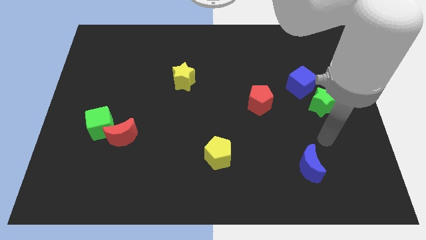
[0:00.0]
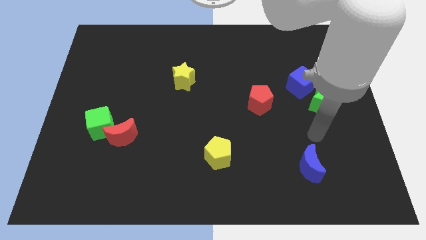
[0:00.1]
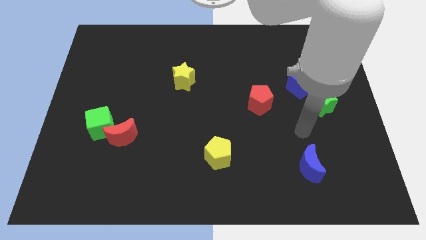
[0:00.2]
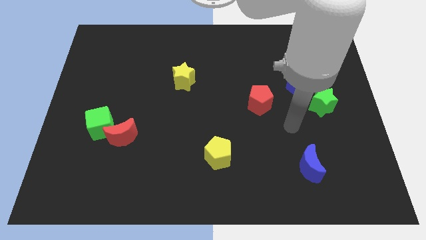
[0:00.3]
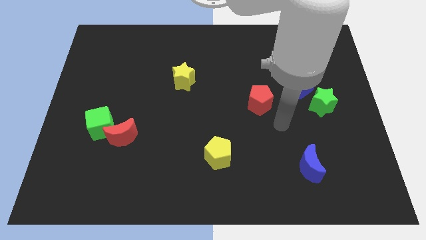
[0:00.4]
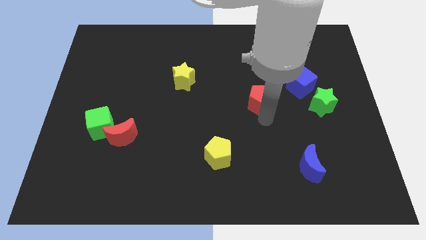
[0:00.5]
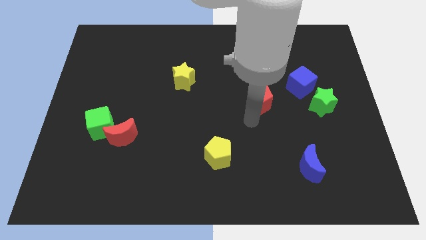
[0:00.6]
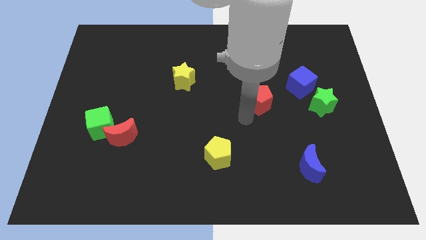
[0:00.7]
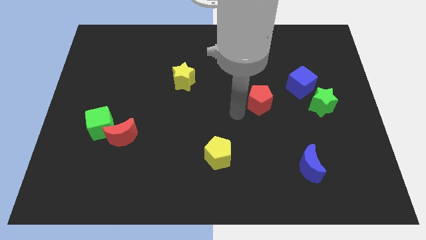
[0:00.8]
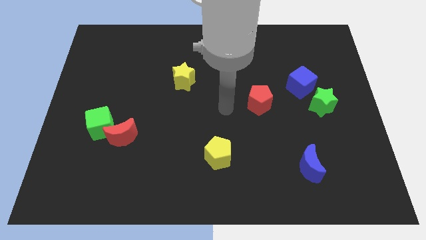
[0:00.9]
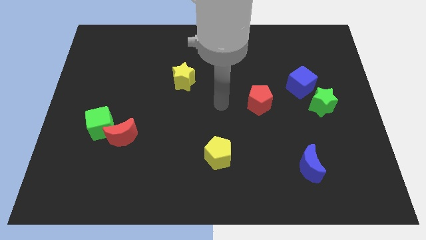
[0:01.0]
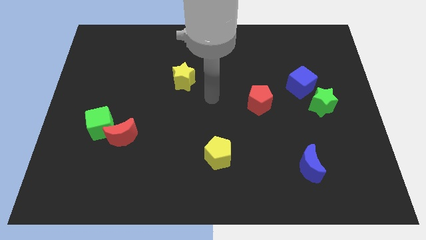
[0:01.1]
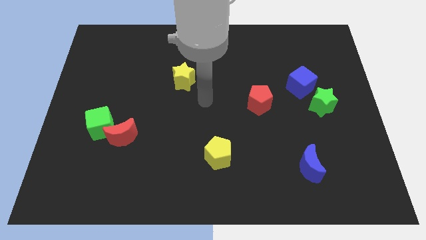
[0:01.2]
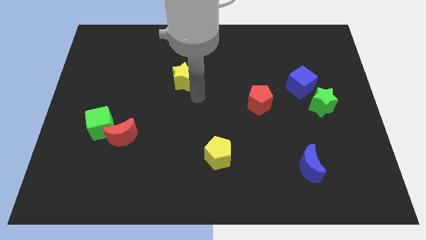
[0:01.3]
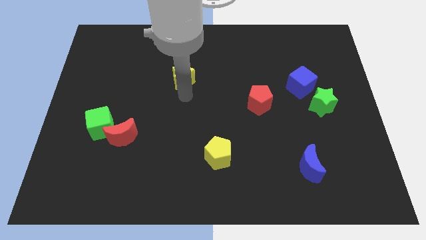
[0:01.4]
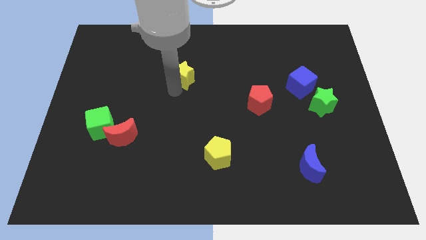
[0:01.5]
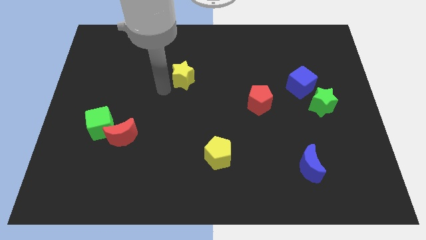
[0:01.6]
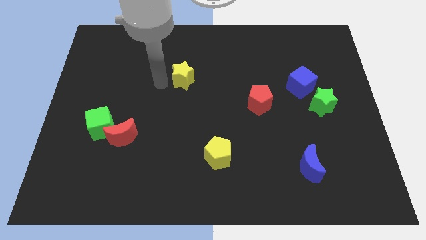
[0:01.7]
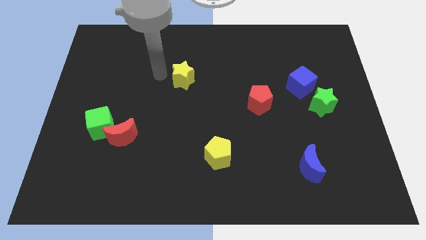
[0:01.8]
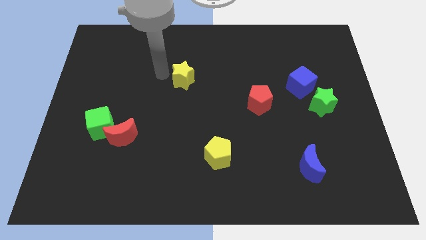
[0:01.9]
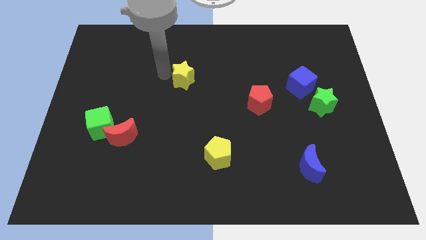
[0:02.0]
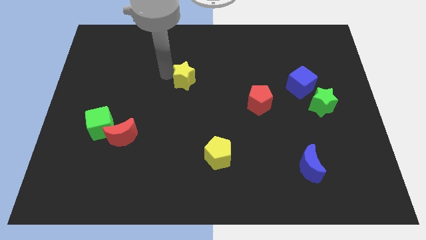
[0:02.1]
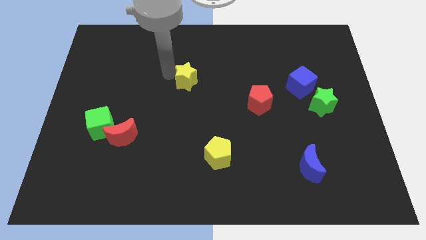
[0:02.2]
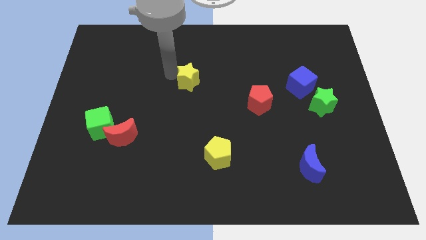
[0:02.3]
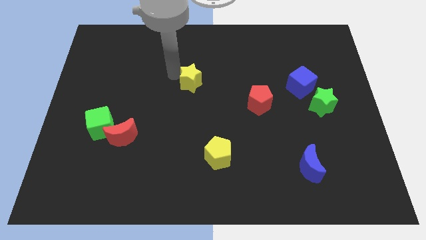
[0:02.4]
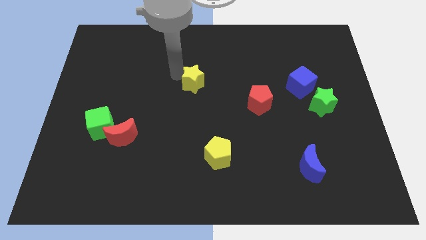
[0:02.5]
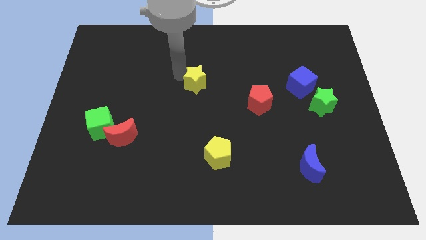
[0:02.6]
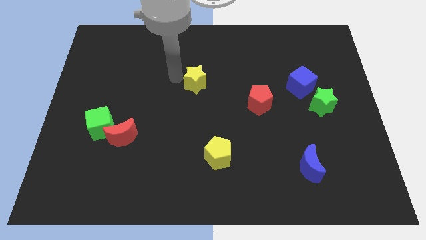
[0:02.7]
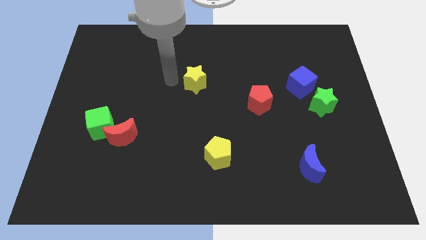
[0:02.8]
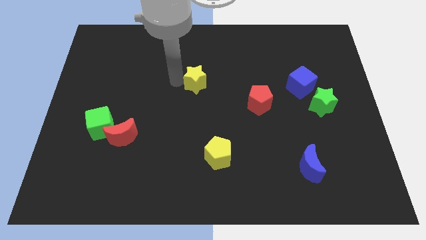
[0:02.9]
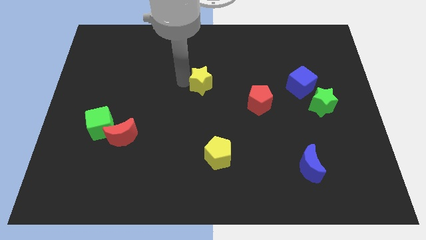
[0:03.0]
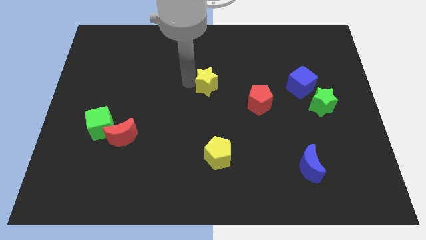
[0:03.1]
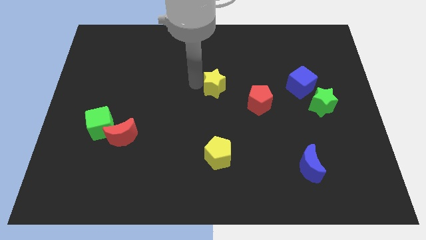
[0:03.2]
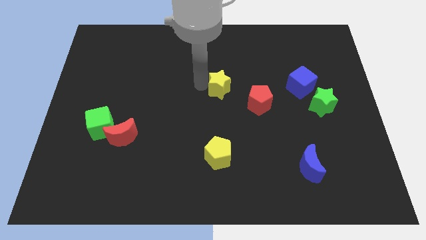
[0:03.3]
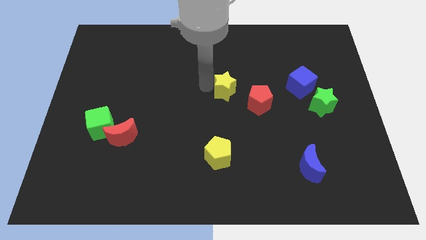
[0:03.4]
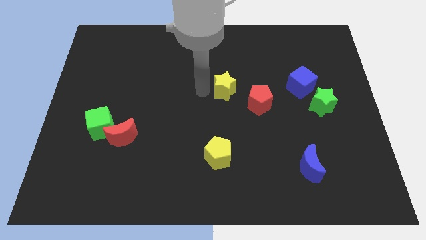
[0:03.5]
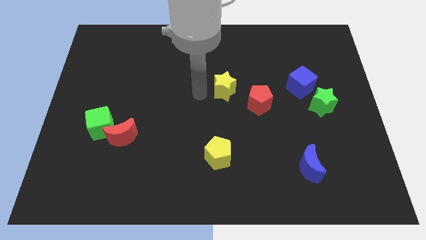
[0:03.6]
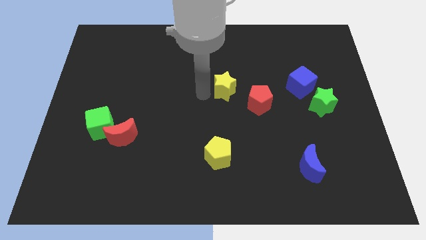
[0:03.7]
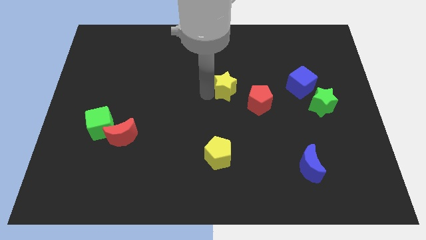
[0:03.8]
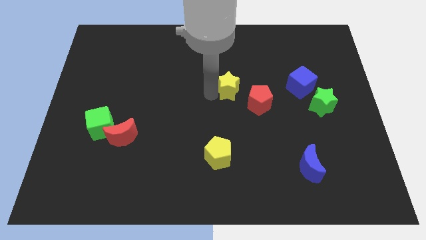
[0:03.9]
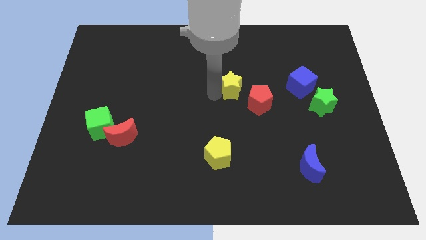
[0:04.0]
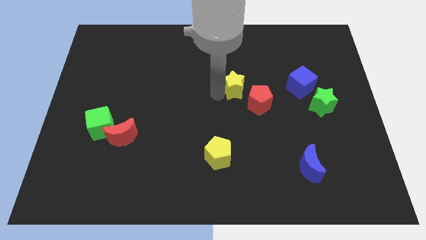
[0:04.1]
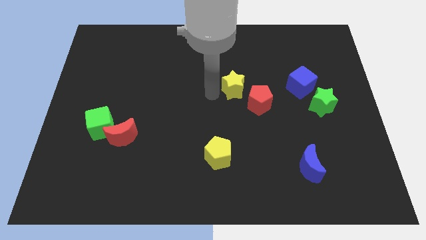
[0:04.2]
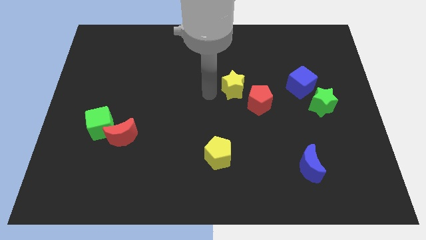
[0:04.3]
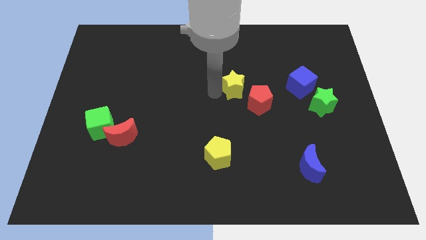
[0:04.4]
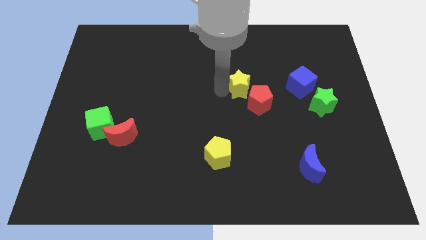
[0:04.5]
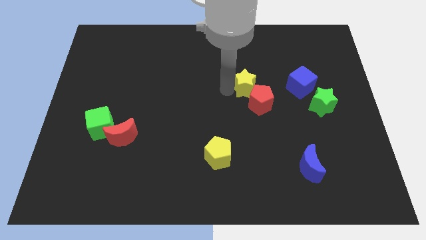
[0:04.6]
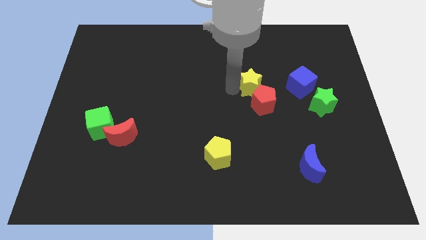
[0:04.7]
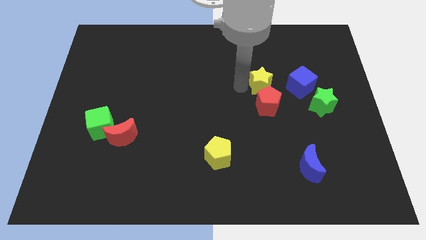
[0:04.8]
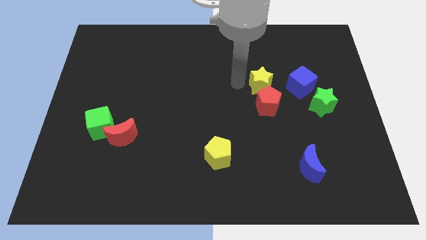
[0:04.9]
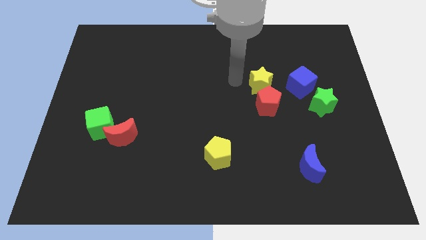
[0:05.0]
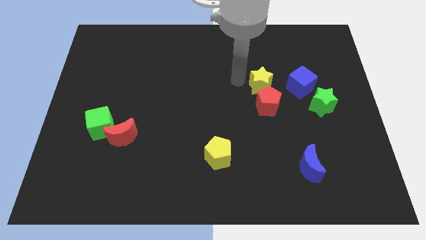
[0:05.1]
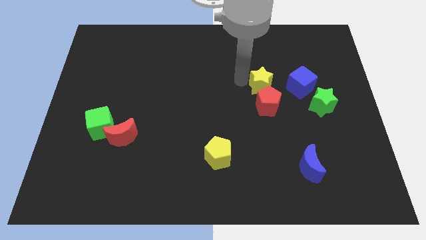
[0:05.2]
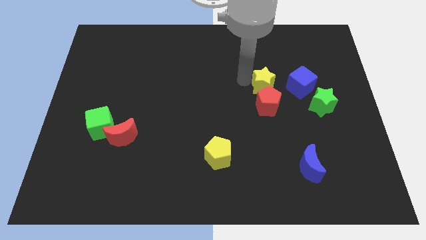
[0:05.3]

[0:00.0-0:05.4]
push the yellow star to the top right side of the red pentagon

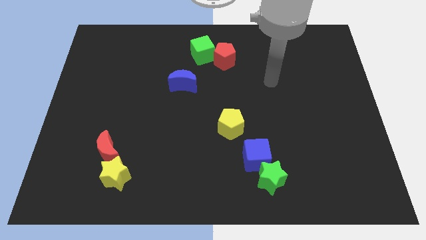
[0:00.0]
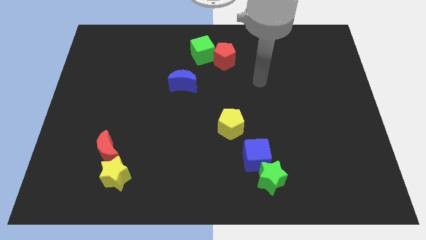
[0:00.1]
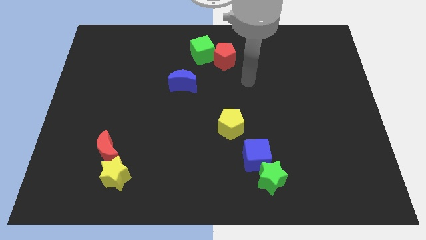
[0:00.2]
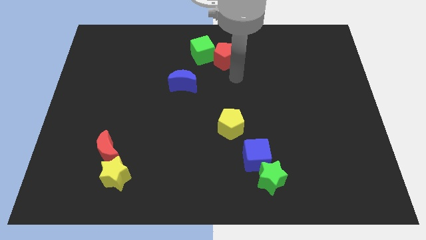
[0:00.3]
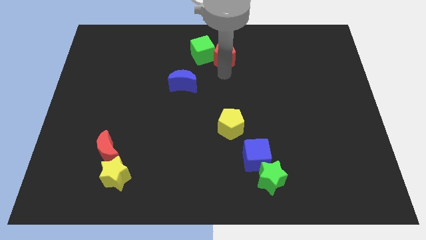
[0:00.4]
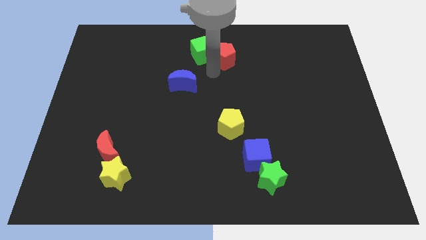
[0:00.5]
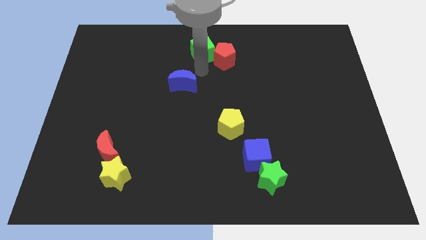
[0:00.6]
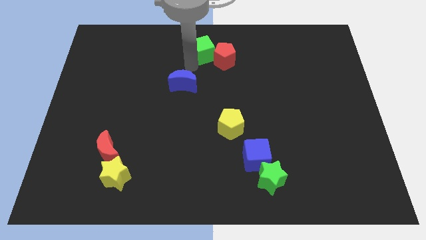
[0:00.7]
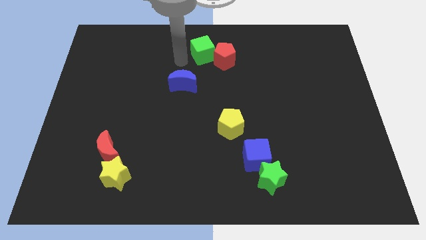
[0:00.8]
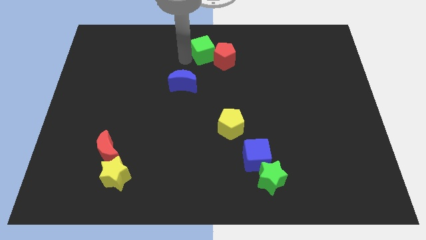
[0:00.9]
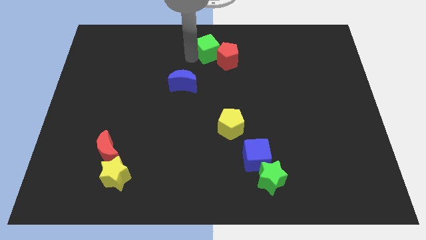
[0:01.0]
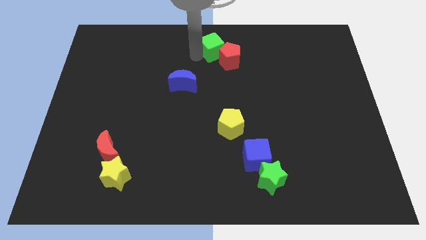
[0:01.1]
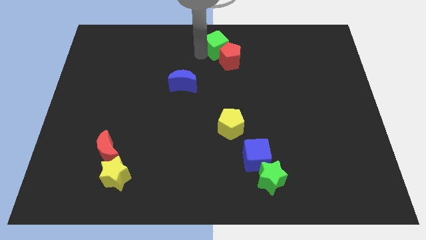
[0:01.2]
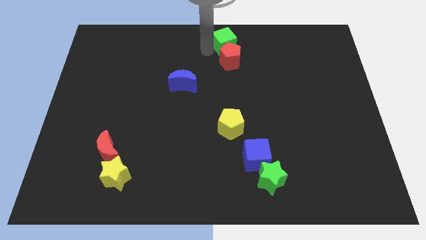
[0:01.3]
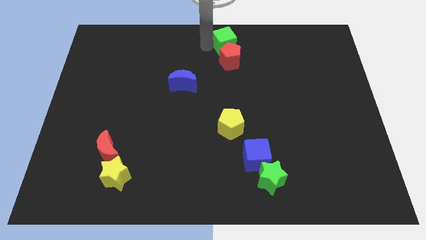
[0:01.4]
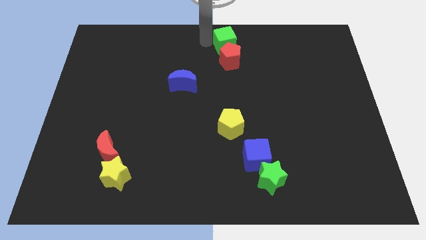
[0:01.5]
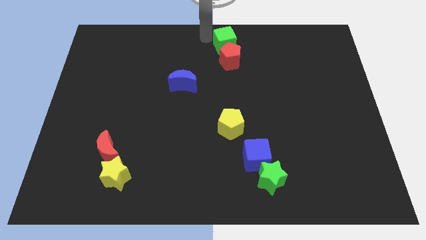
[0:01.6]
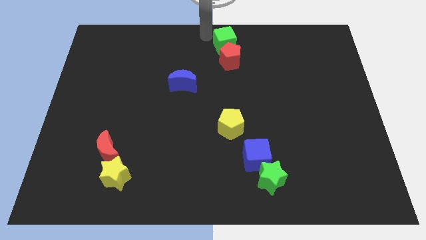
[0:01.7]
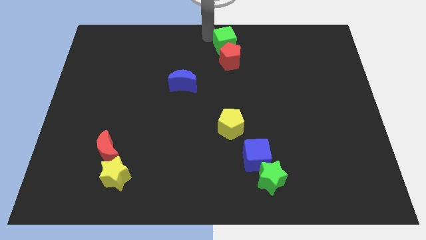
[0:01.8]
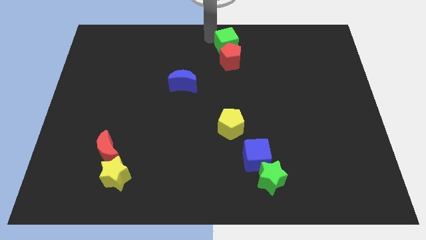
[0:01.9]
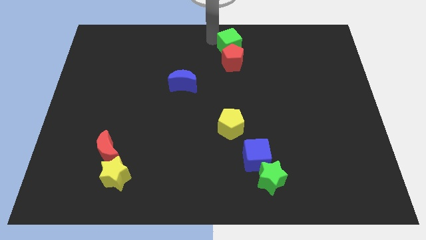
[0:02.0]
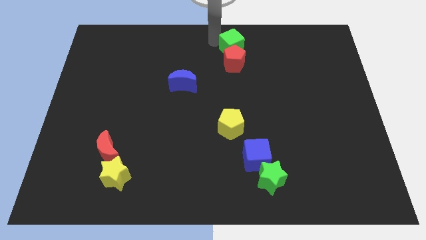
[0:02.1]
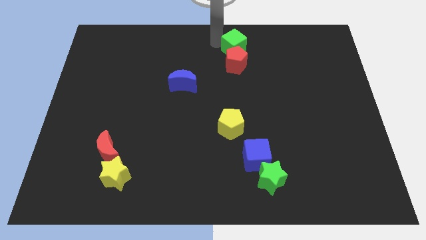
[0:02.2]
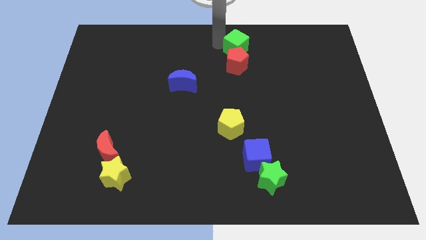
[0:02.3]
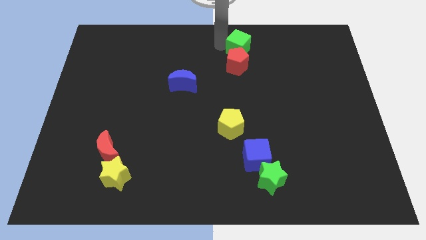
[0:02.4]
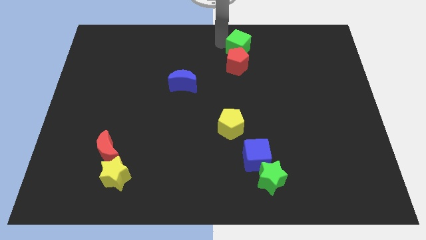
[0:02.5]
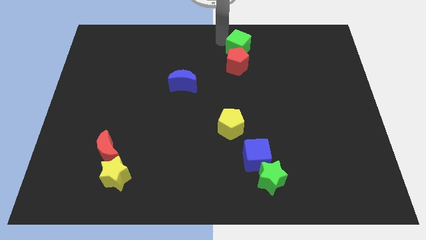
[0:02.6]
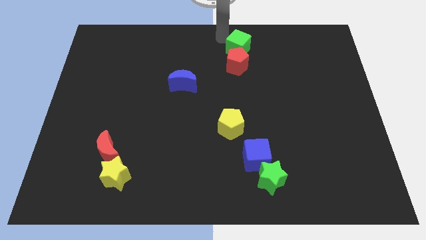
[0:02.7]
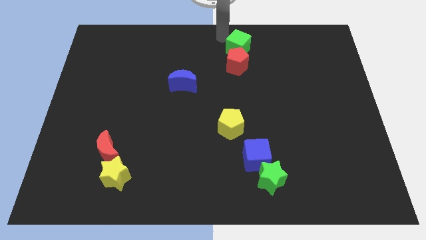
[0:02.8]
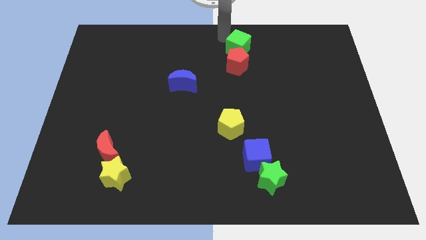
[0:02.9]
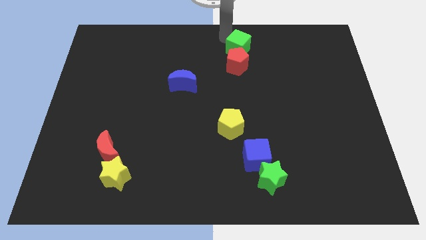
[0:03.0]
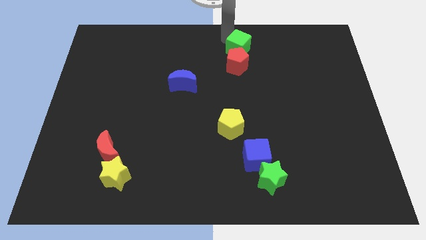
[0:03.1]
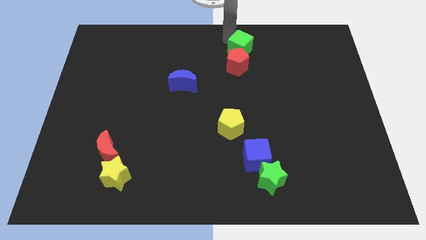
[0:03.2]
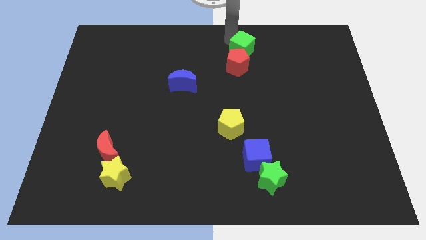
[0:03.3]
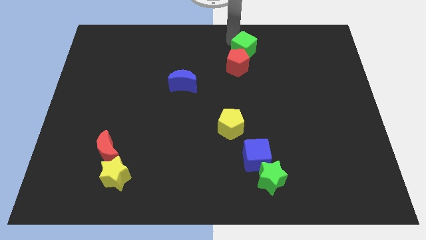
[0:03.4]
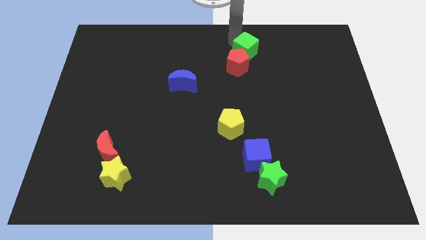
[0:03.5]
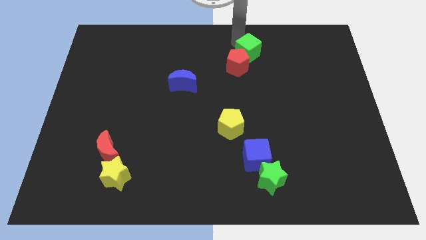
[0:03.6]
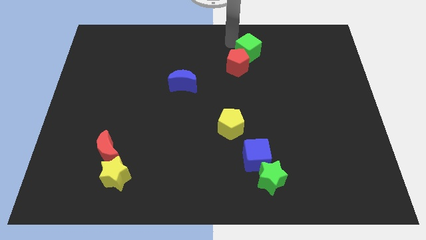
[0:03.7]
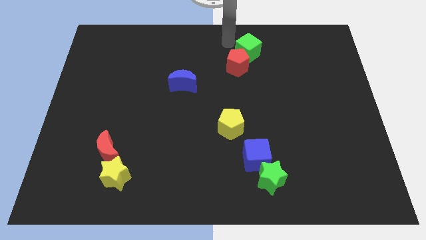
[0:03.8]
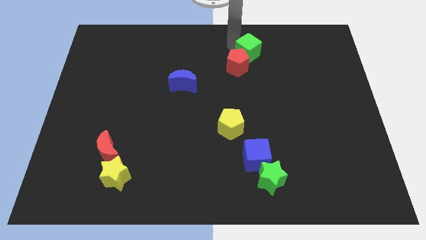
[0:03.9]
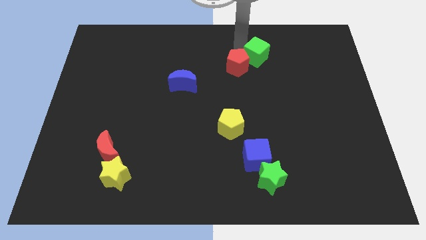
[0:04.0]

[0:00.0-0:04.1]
slide the green cube right of the red pentagon
